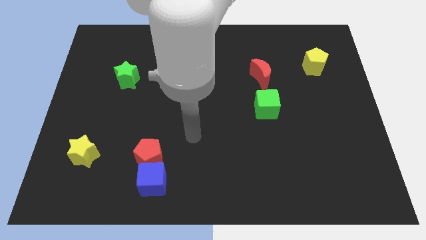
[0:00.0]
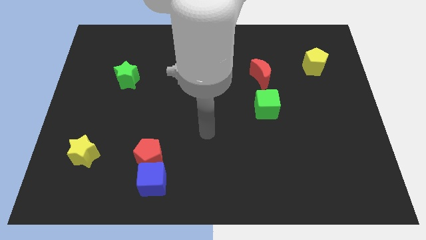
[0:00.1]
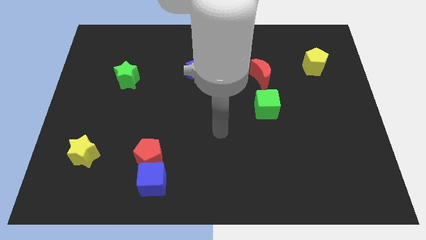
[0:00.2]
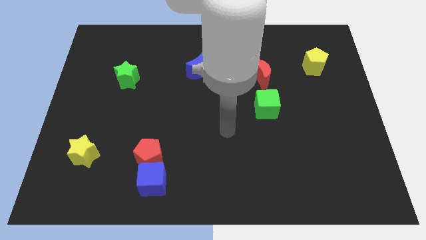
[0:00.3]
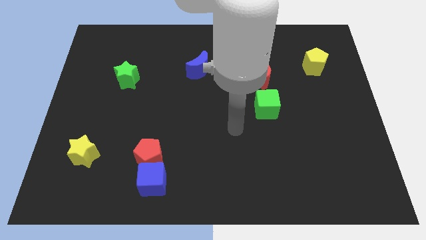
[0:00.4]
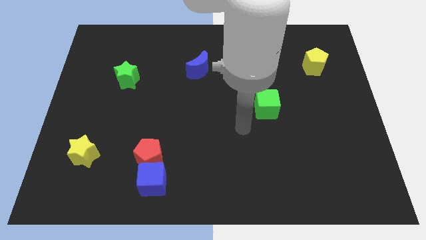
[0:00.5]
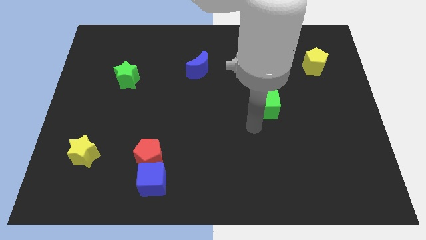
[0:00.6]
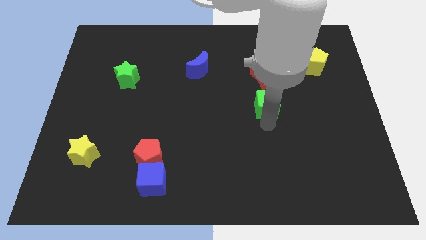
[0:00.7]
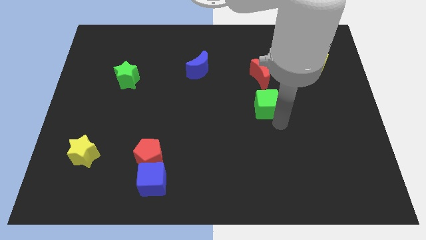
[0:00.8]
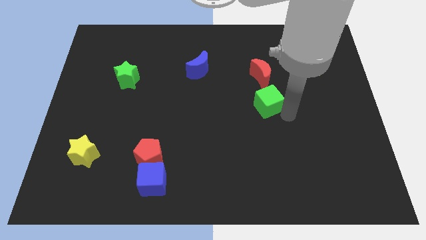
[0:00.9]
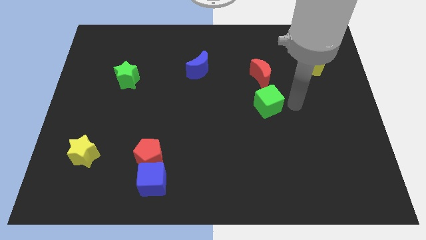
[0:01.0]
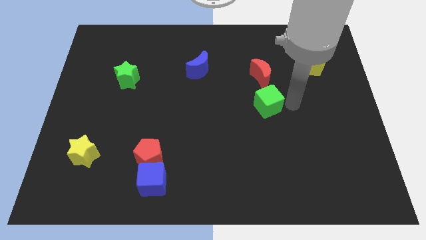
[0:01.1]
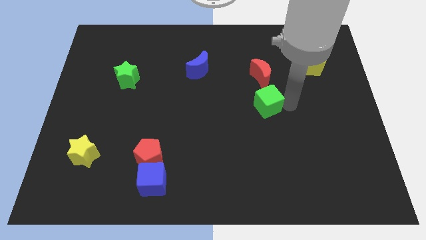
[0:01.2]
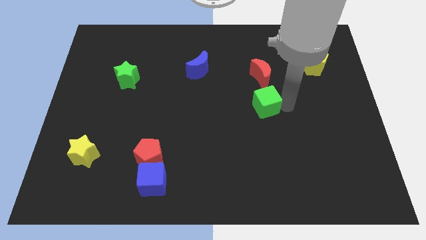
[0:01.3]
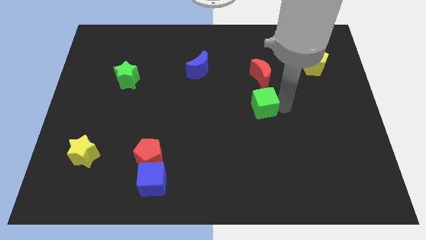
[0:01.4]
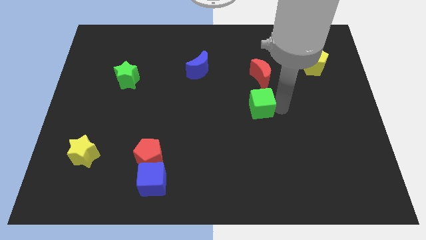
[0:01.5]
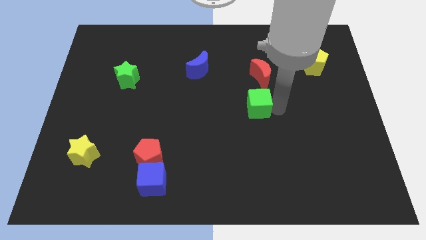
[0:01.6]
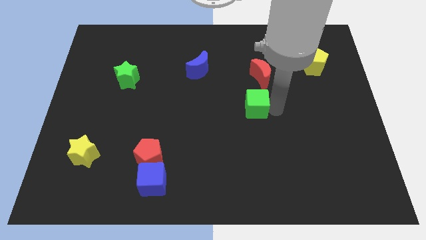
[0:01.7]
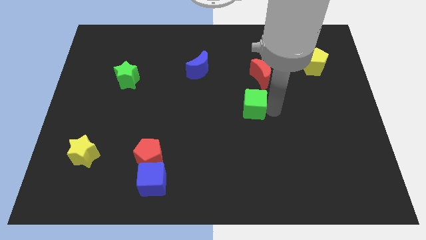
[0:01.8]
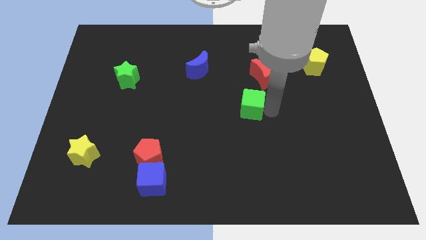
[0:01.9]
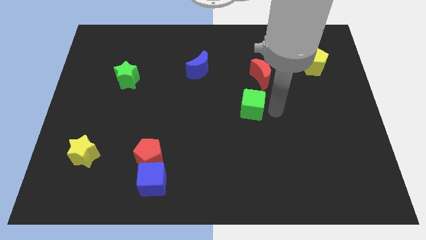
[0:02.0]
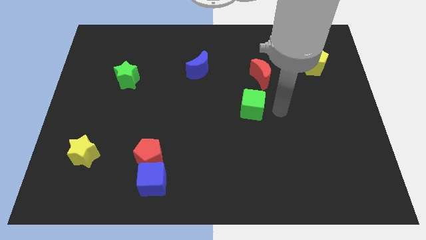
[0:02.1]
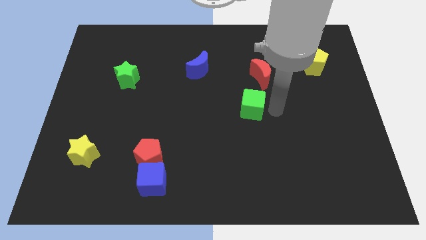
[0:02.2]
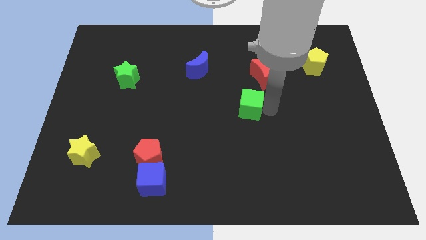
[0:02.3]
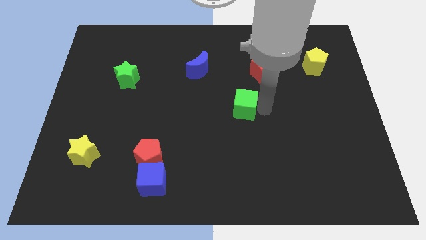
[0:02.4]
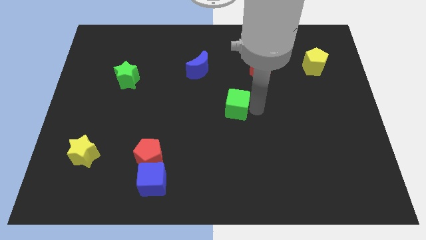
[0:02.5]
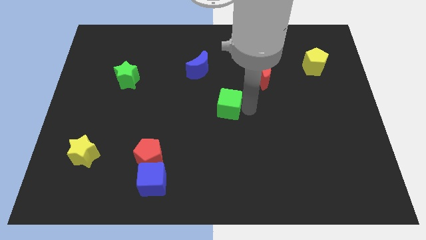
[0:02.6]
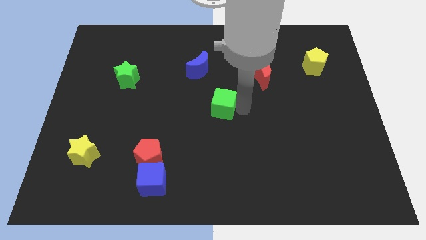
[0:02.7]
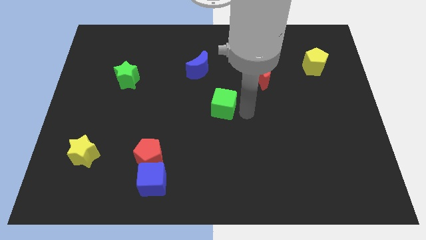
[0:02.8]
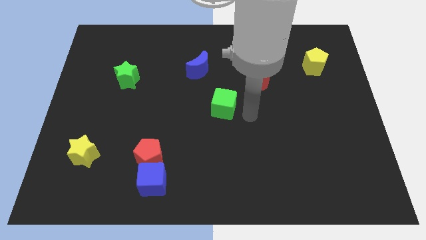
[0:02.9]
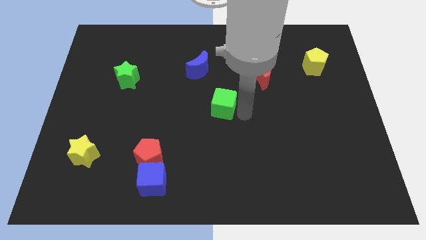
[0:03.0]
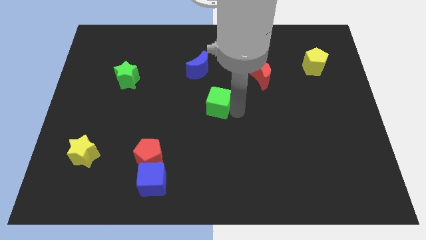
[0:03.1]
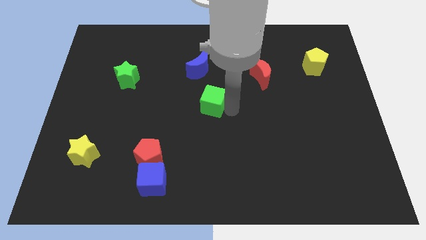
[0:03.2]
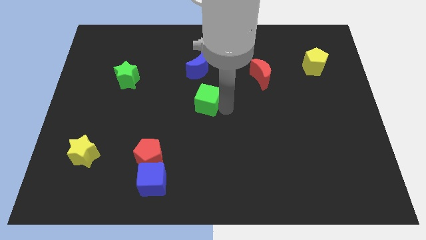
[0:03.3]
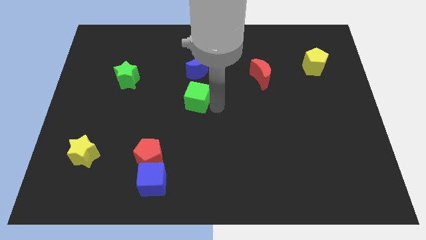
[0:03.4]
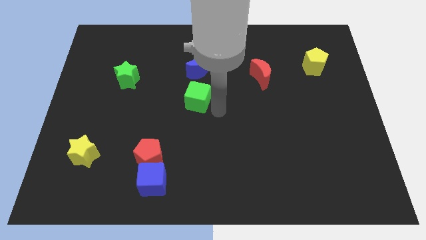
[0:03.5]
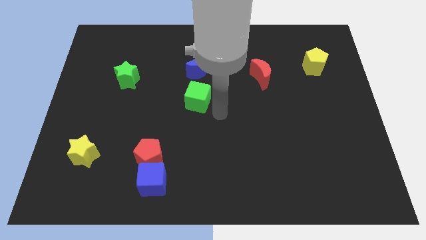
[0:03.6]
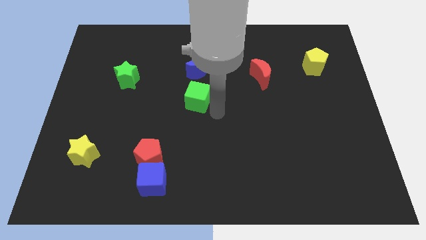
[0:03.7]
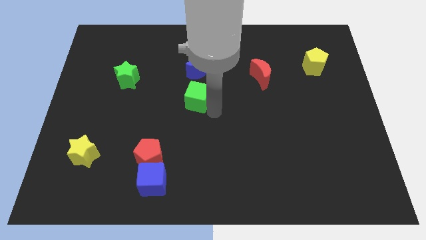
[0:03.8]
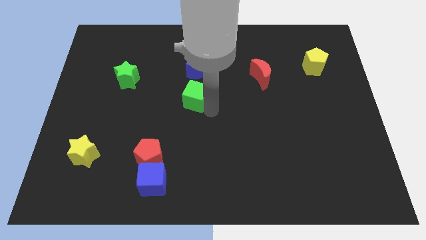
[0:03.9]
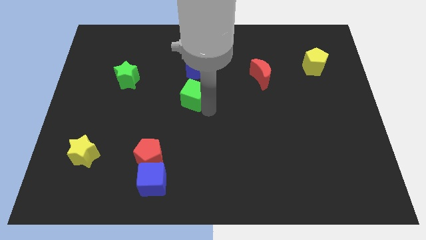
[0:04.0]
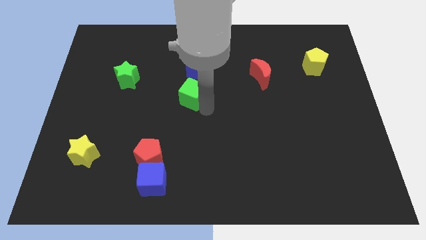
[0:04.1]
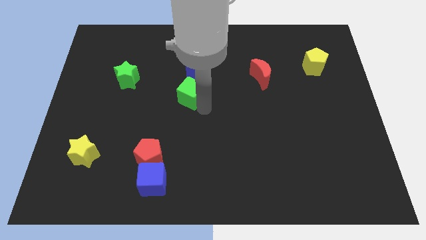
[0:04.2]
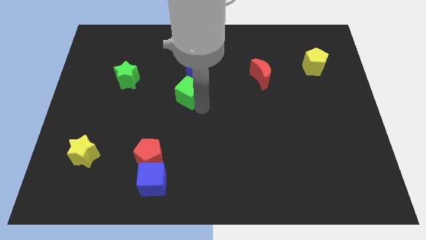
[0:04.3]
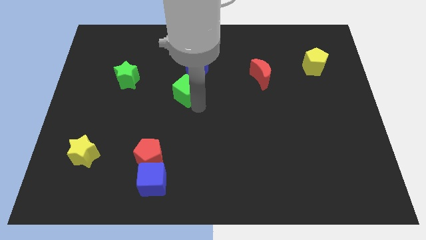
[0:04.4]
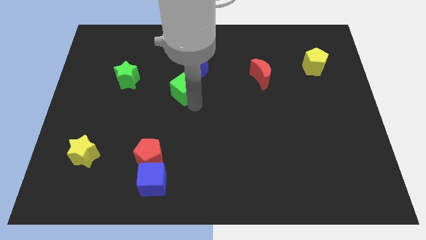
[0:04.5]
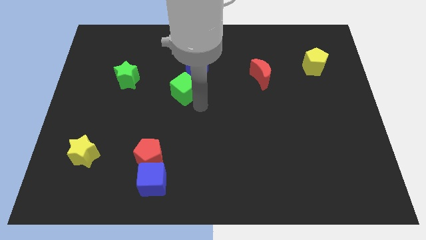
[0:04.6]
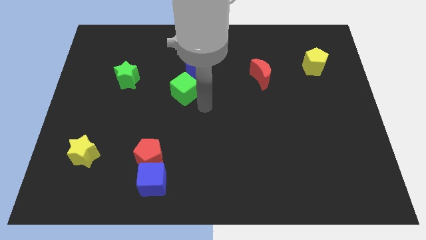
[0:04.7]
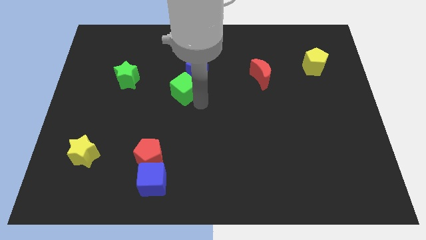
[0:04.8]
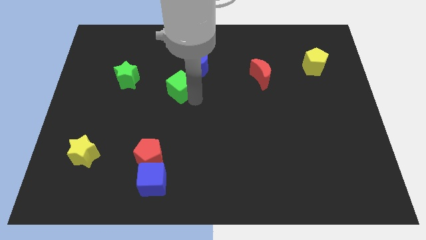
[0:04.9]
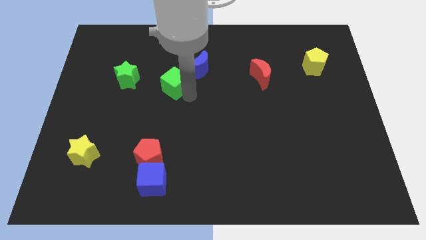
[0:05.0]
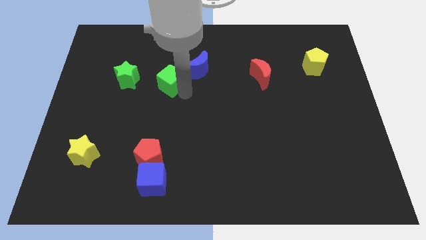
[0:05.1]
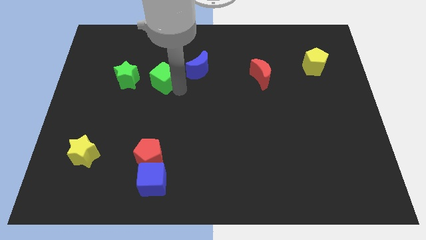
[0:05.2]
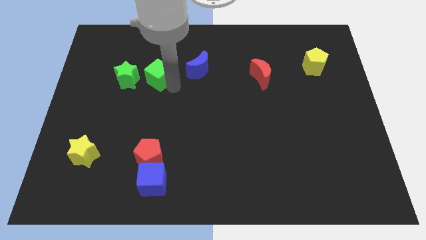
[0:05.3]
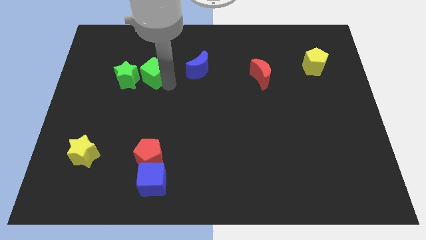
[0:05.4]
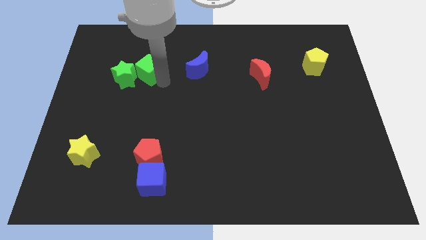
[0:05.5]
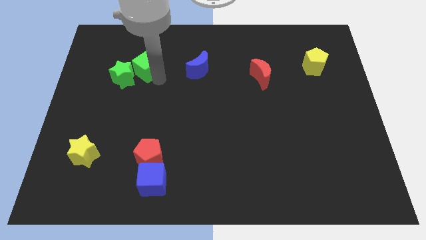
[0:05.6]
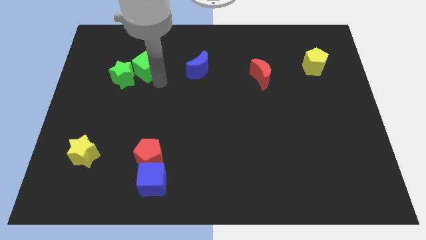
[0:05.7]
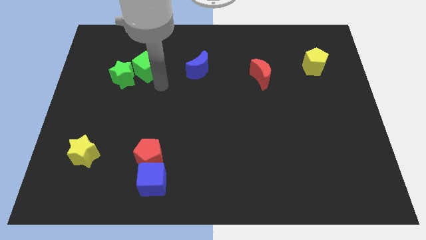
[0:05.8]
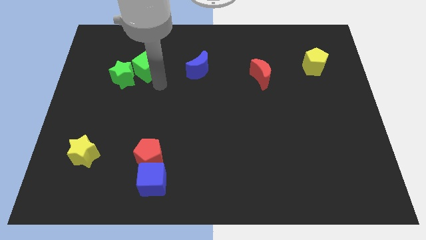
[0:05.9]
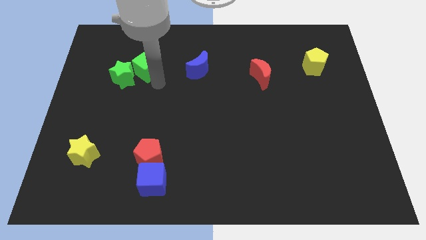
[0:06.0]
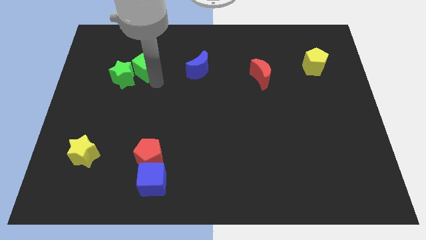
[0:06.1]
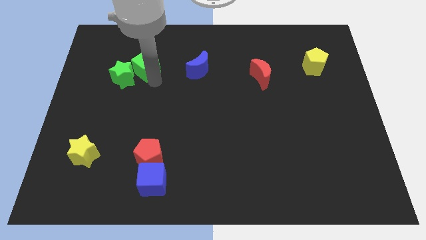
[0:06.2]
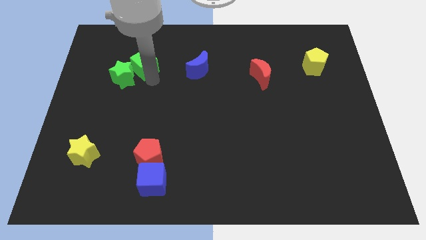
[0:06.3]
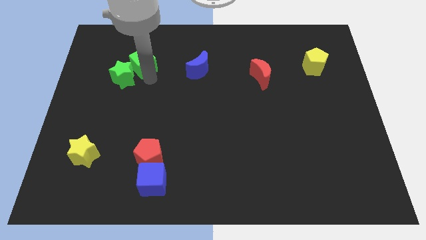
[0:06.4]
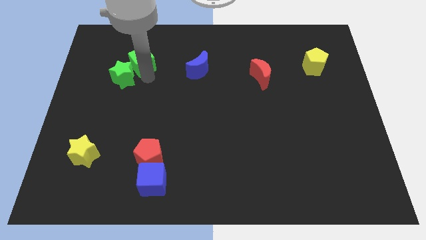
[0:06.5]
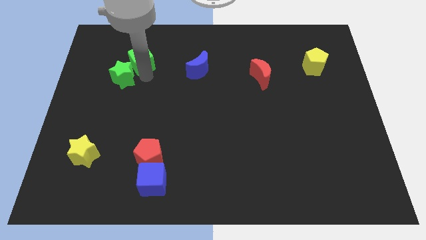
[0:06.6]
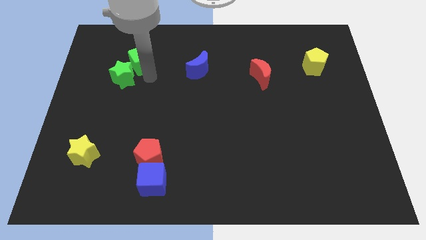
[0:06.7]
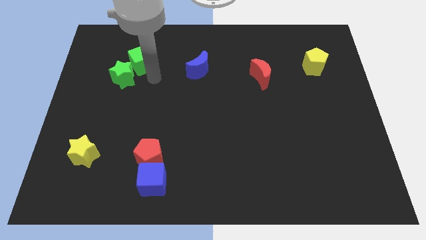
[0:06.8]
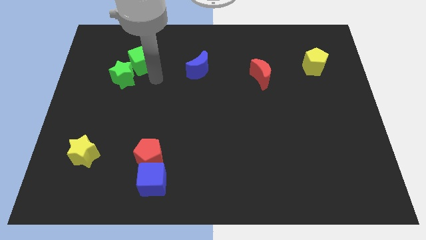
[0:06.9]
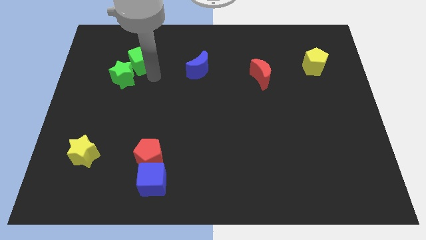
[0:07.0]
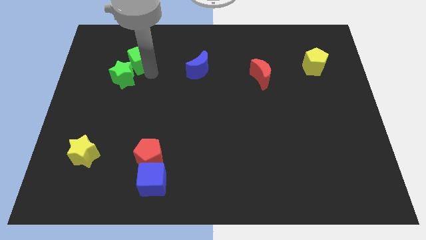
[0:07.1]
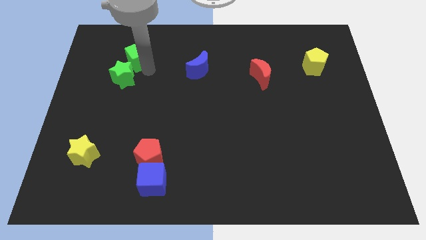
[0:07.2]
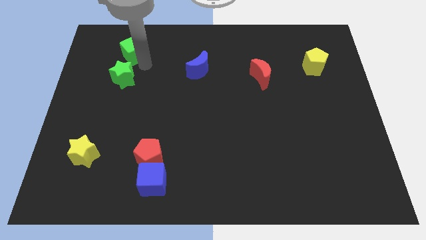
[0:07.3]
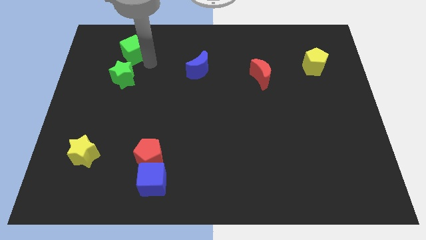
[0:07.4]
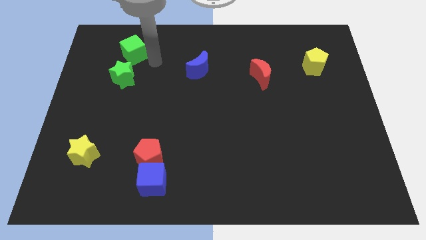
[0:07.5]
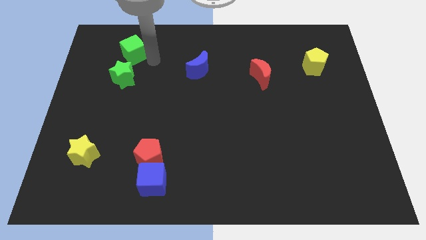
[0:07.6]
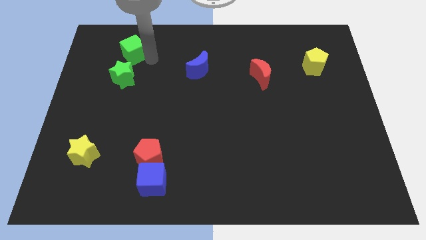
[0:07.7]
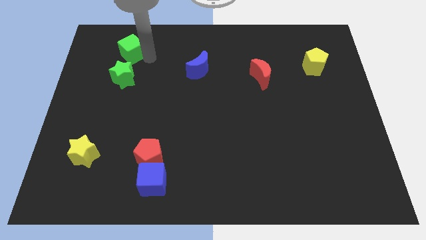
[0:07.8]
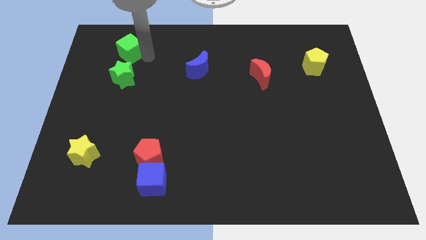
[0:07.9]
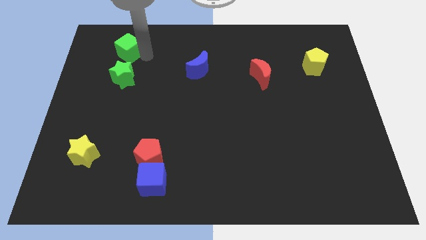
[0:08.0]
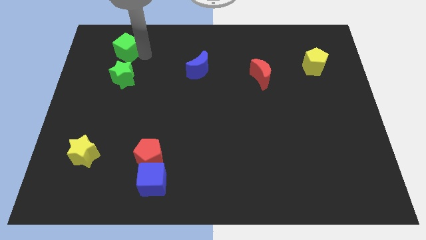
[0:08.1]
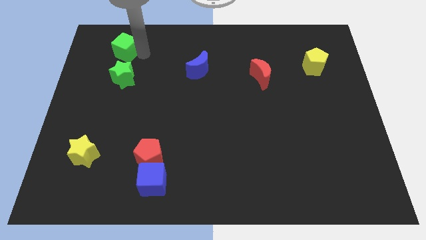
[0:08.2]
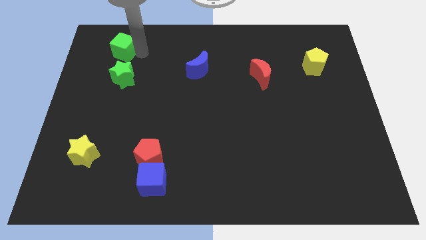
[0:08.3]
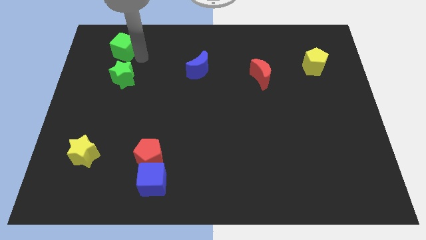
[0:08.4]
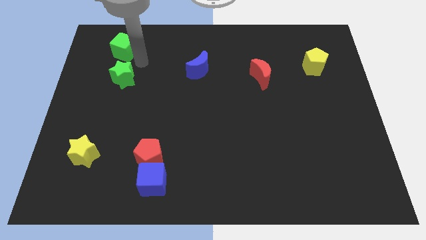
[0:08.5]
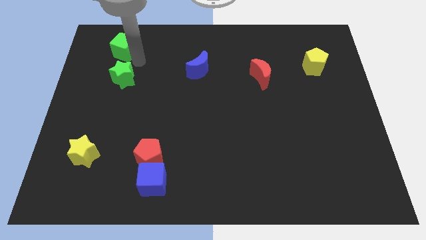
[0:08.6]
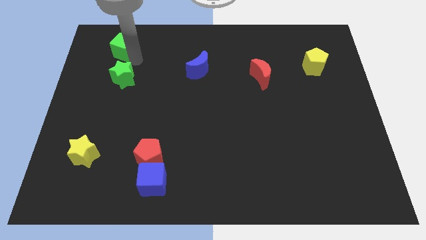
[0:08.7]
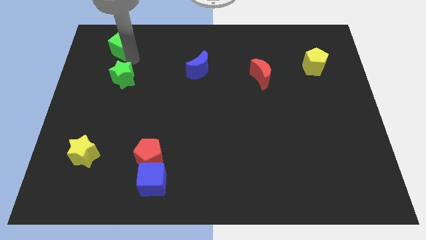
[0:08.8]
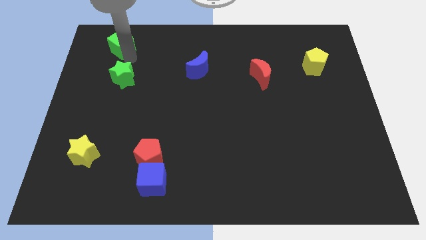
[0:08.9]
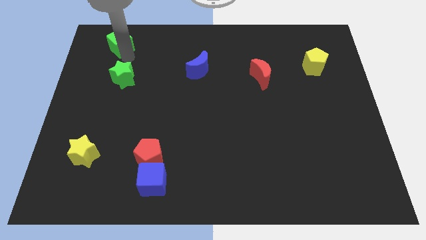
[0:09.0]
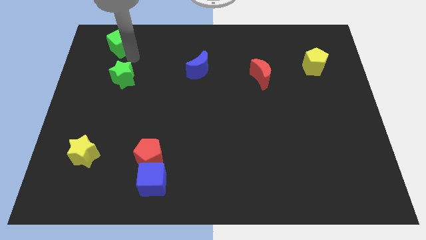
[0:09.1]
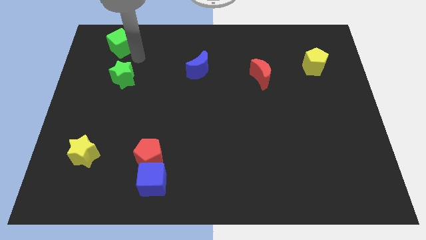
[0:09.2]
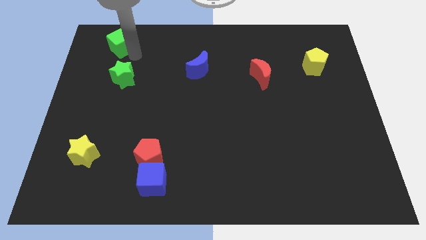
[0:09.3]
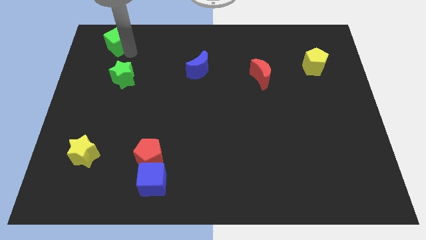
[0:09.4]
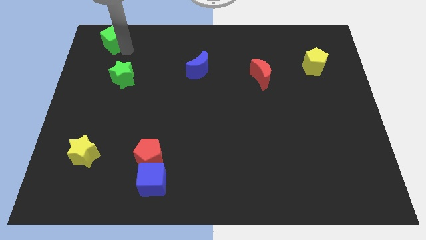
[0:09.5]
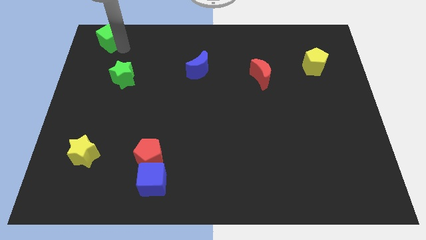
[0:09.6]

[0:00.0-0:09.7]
move the green cube to the top left of the board
